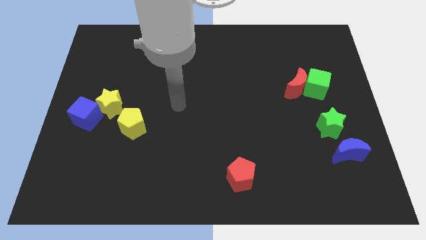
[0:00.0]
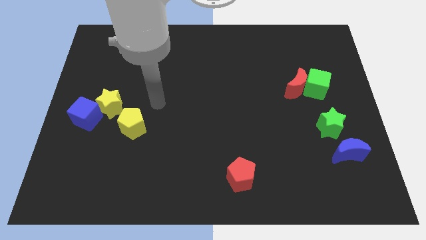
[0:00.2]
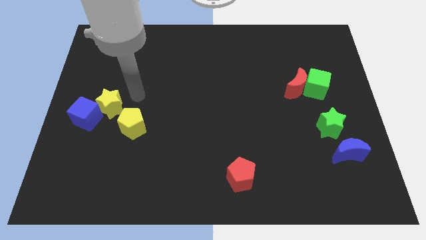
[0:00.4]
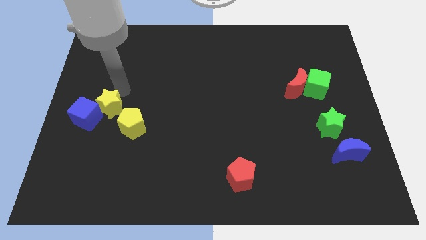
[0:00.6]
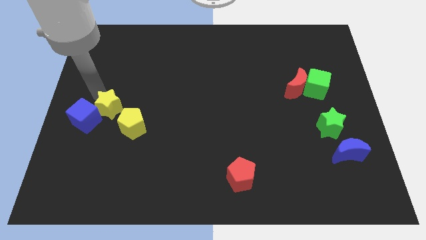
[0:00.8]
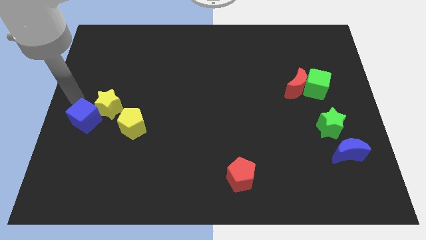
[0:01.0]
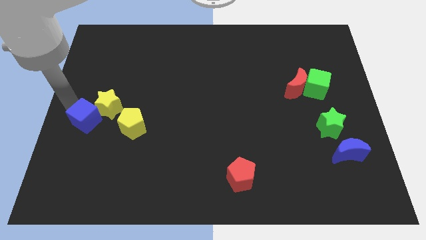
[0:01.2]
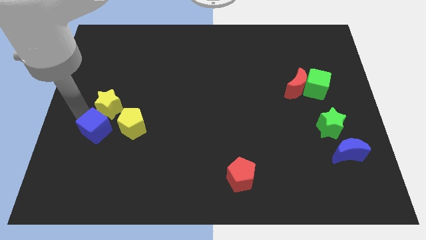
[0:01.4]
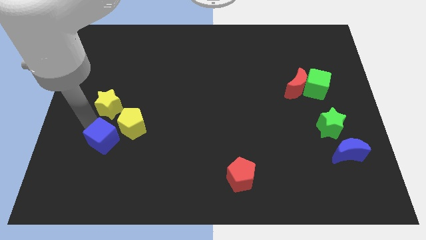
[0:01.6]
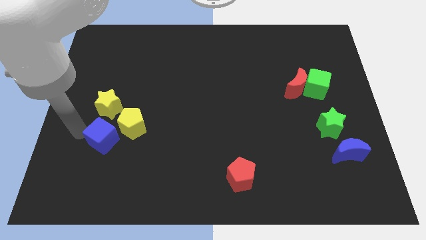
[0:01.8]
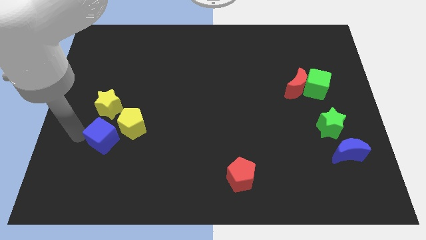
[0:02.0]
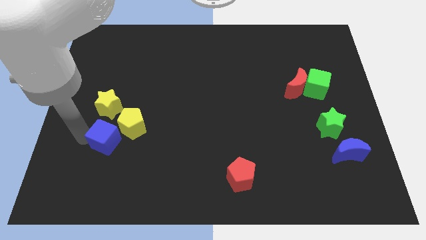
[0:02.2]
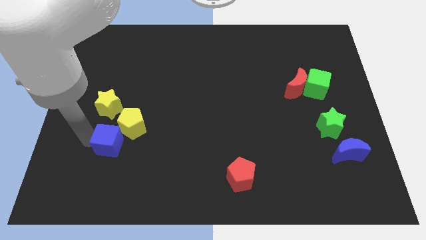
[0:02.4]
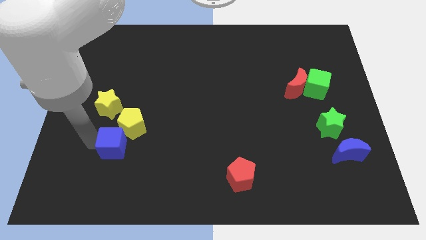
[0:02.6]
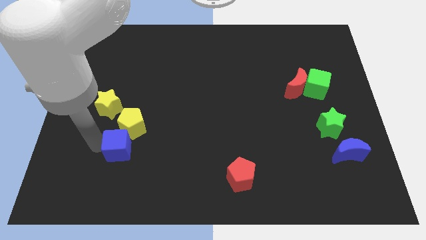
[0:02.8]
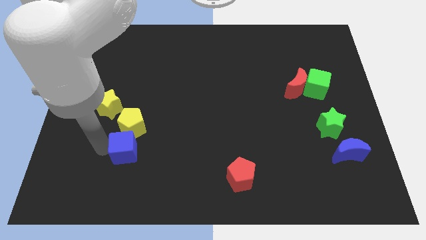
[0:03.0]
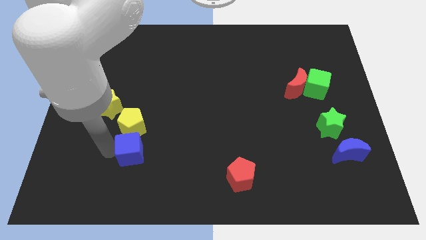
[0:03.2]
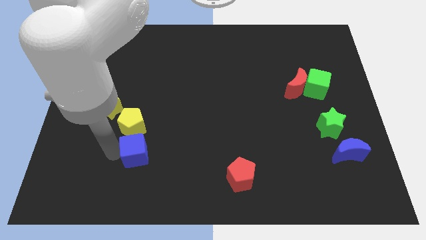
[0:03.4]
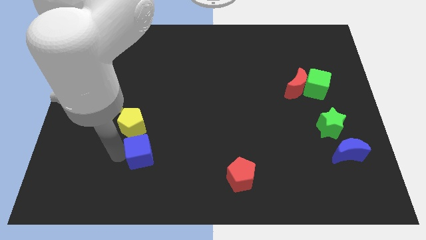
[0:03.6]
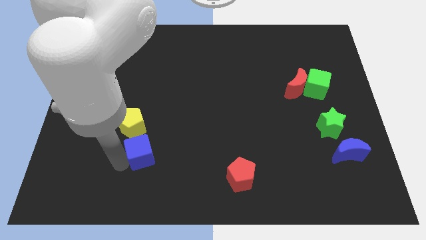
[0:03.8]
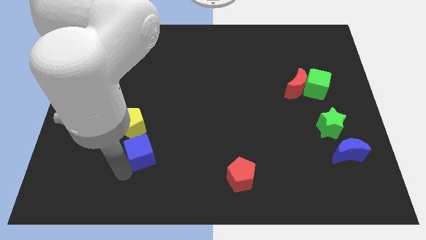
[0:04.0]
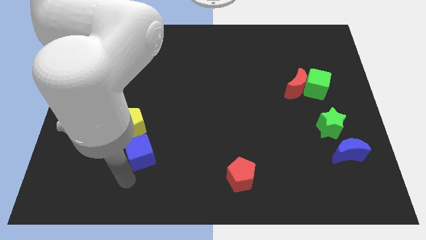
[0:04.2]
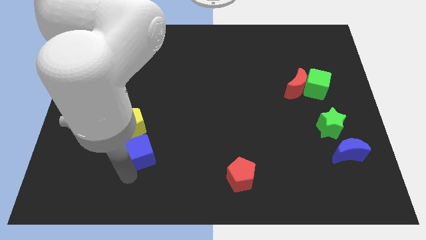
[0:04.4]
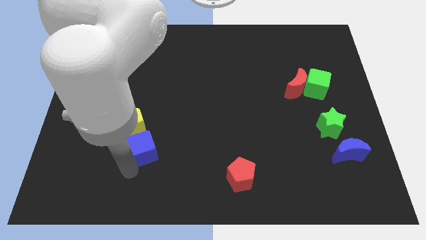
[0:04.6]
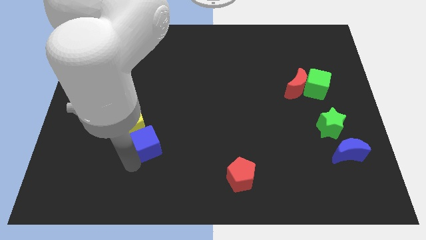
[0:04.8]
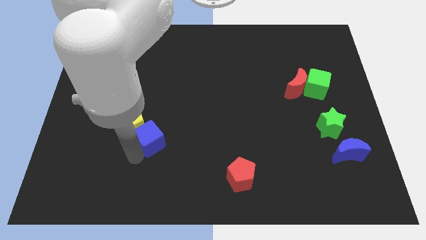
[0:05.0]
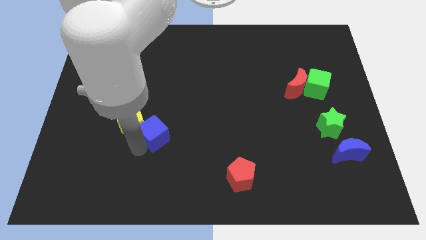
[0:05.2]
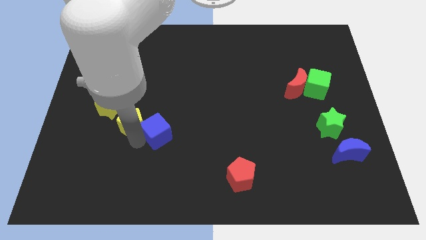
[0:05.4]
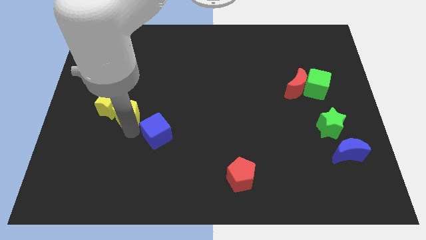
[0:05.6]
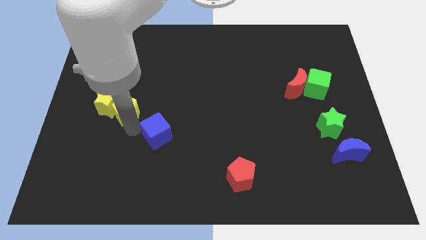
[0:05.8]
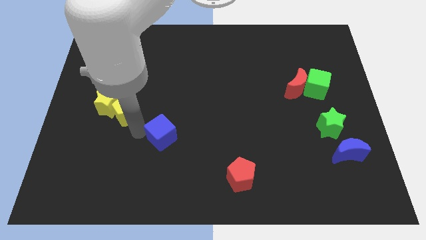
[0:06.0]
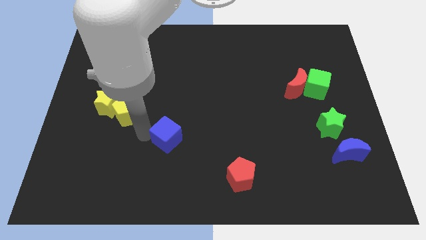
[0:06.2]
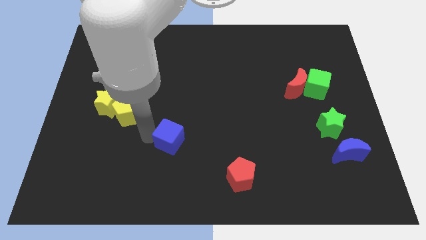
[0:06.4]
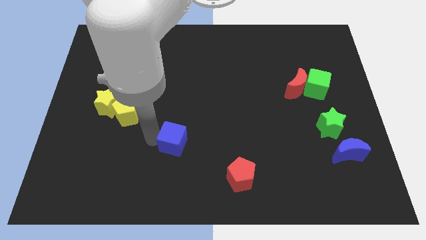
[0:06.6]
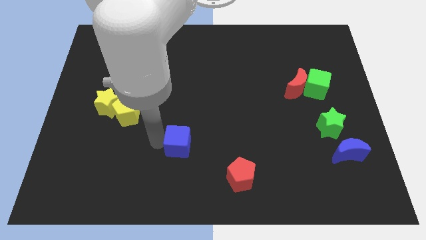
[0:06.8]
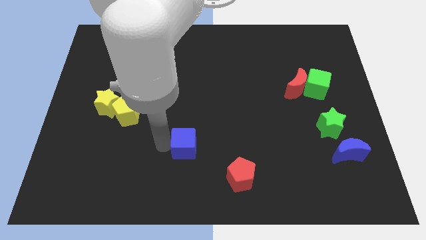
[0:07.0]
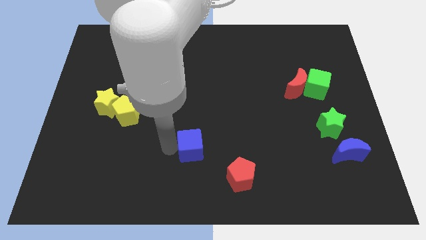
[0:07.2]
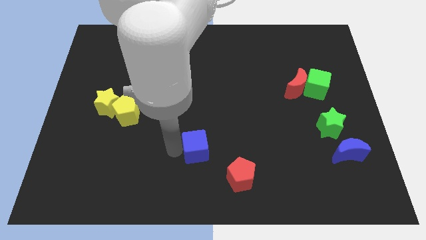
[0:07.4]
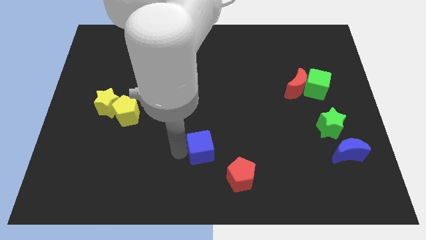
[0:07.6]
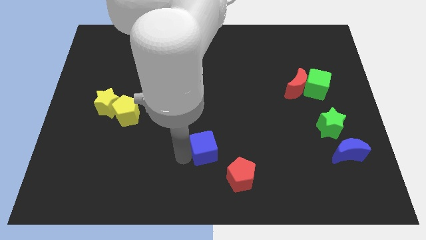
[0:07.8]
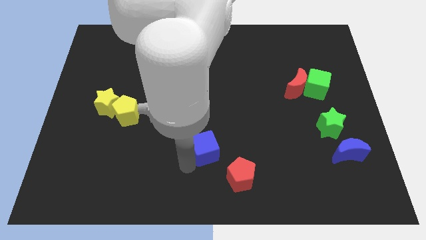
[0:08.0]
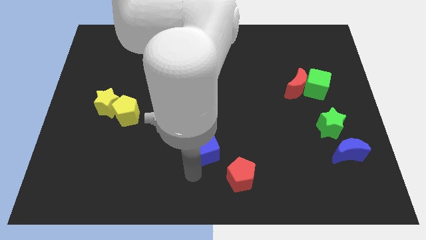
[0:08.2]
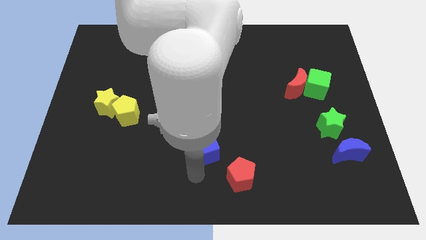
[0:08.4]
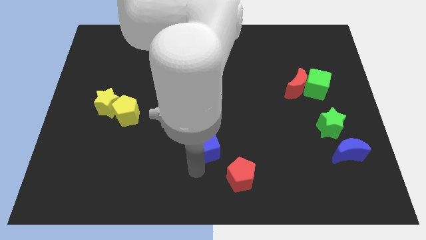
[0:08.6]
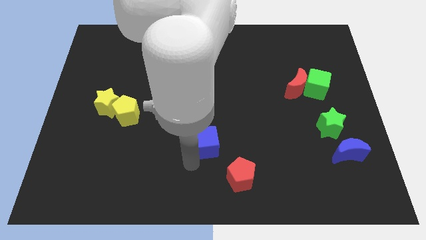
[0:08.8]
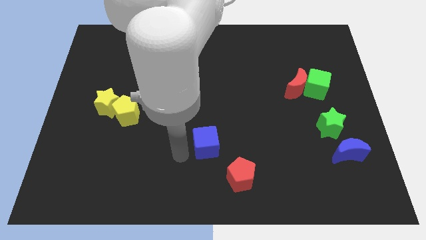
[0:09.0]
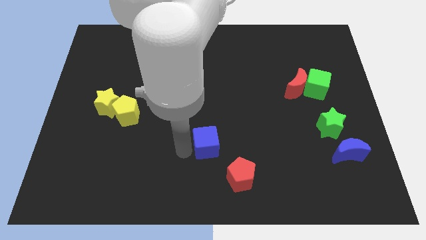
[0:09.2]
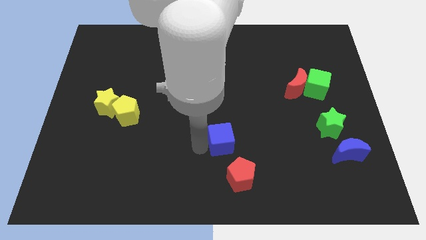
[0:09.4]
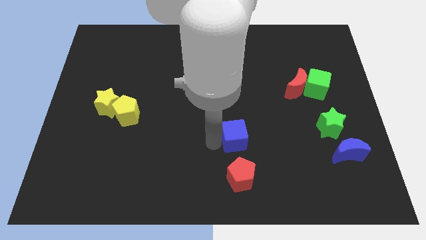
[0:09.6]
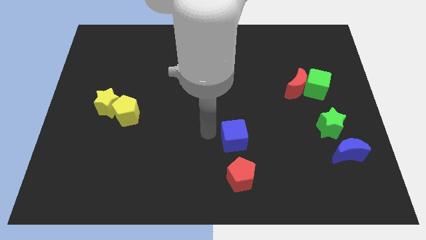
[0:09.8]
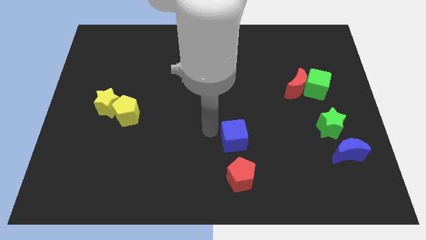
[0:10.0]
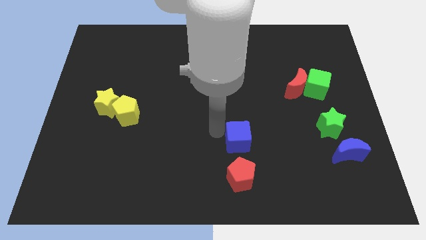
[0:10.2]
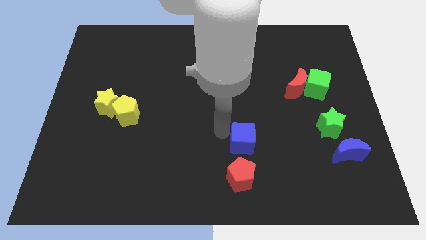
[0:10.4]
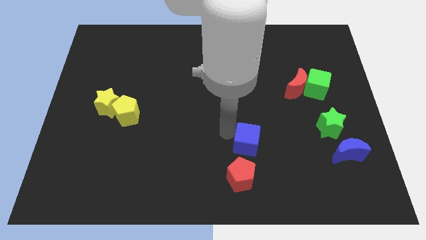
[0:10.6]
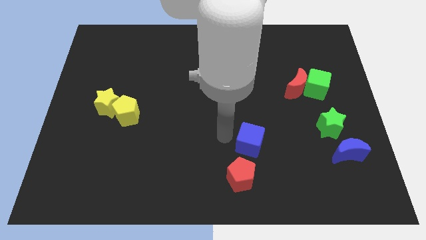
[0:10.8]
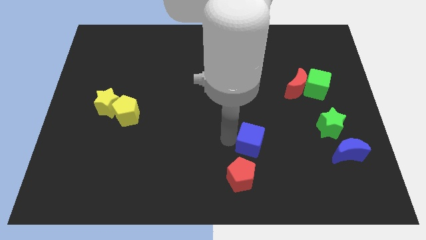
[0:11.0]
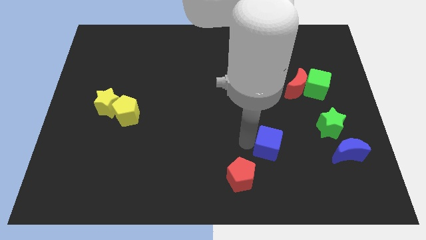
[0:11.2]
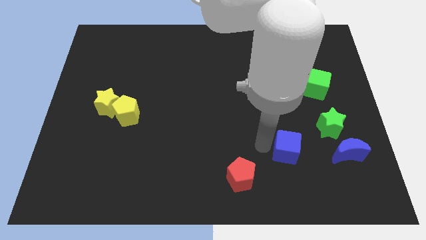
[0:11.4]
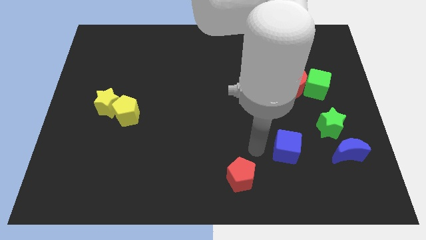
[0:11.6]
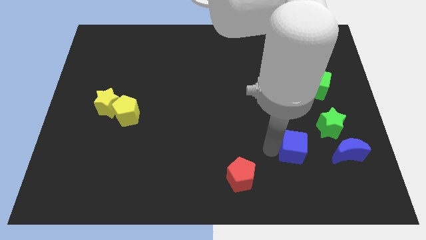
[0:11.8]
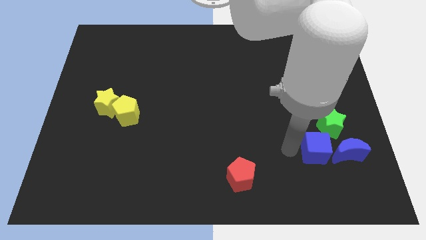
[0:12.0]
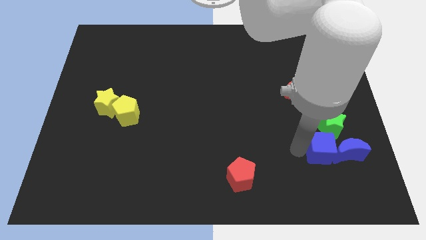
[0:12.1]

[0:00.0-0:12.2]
push the blue cube next to the blue moon
